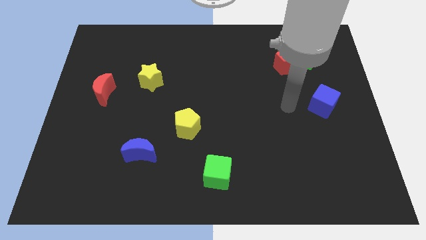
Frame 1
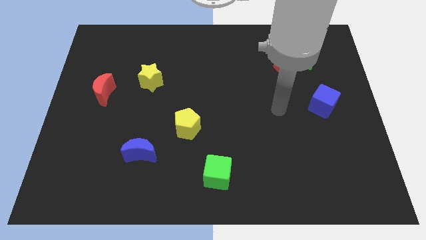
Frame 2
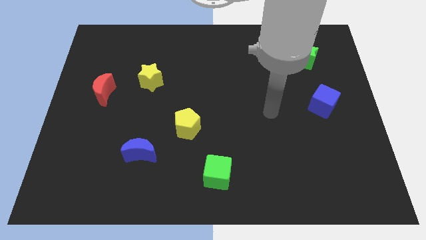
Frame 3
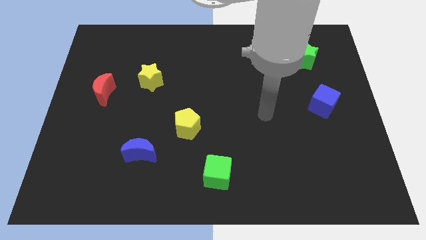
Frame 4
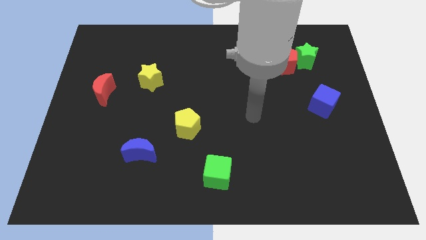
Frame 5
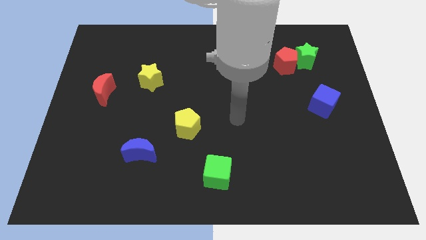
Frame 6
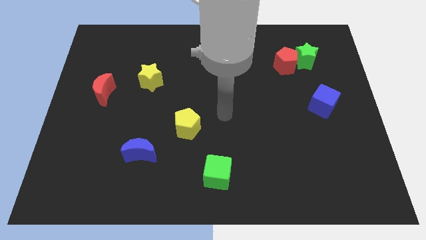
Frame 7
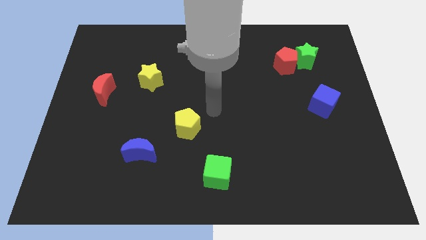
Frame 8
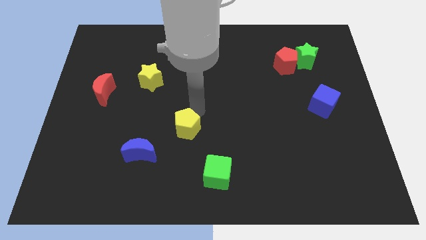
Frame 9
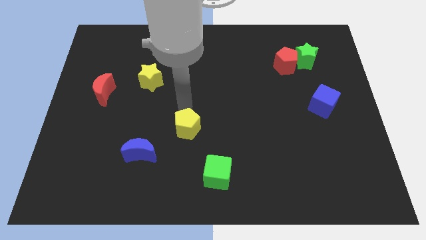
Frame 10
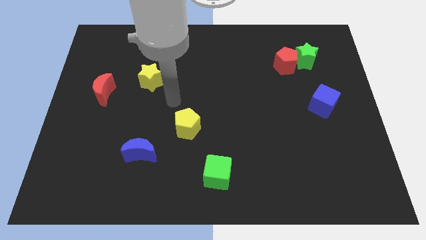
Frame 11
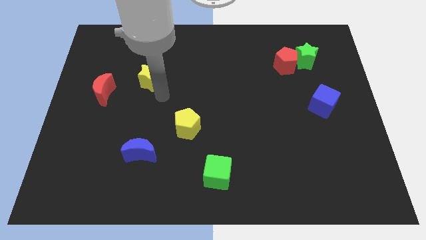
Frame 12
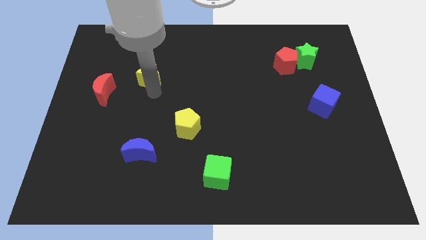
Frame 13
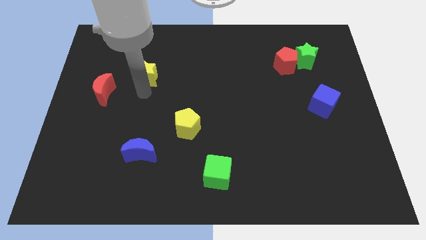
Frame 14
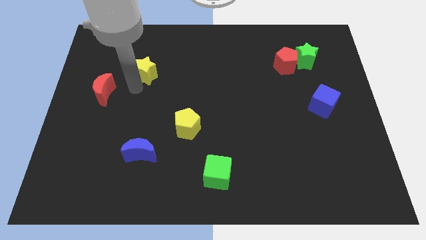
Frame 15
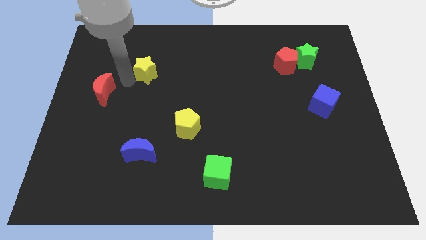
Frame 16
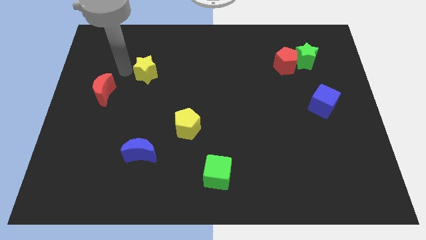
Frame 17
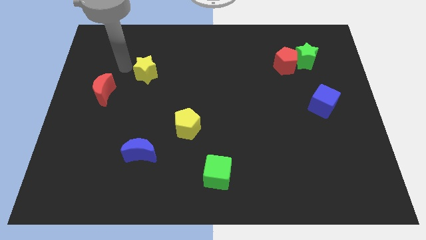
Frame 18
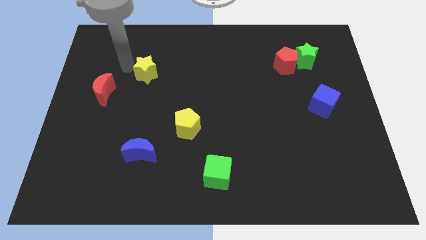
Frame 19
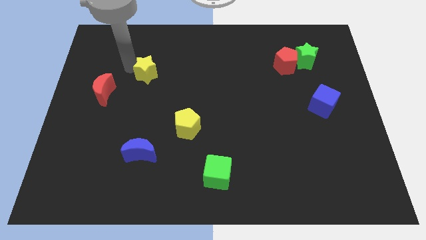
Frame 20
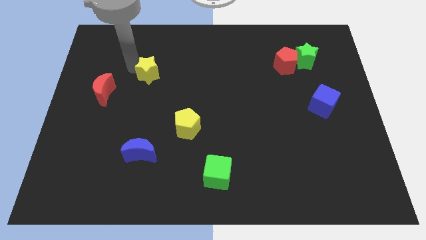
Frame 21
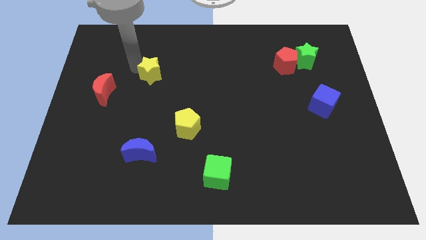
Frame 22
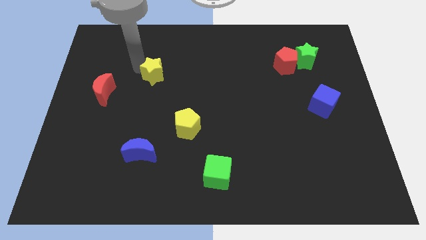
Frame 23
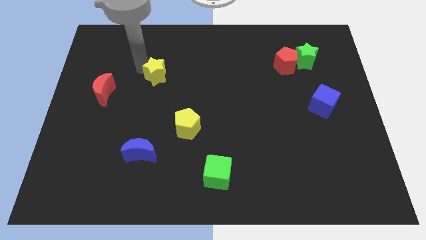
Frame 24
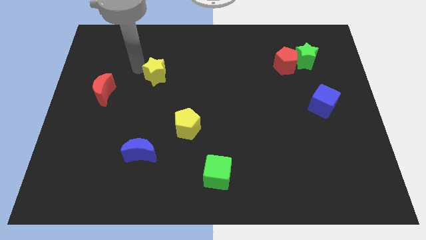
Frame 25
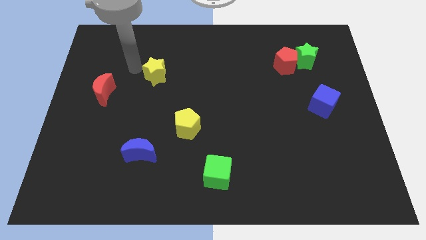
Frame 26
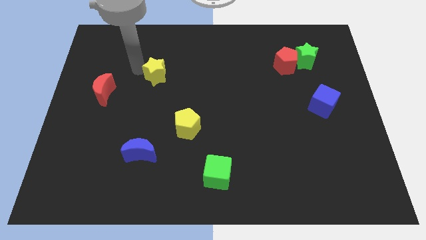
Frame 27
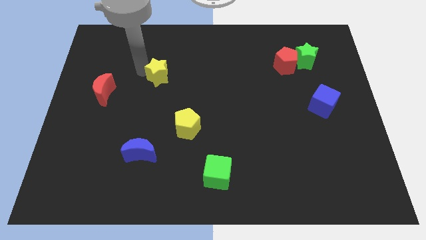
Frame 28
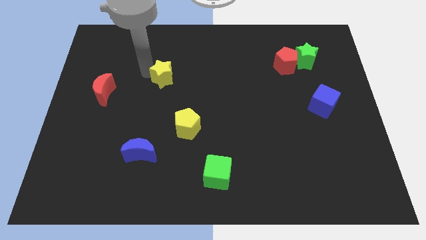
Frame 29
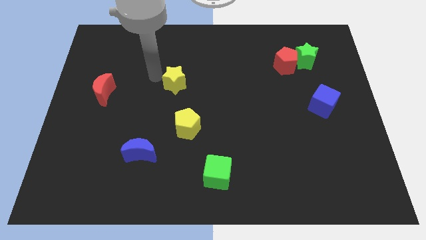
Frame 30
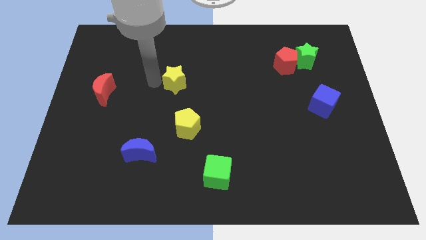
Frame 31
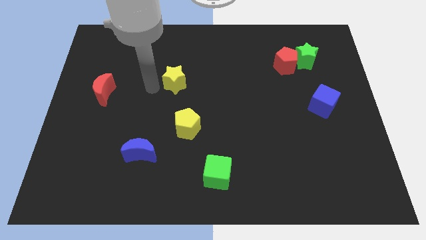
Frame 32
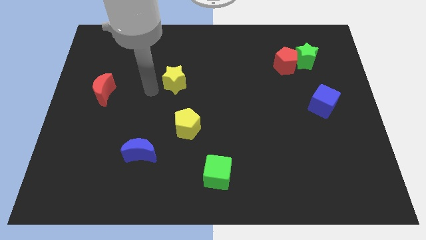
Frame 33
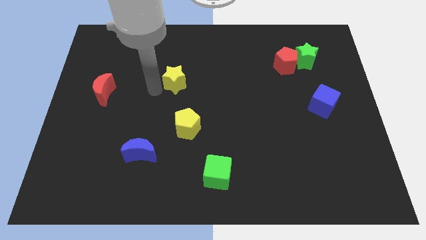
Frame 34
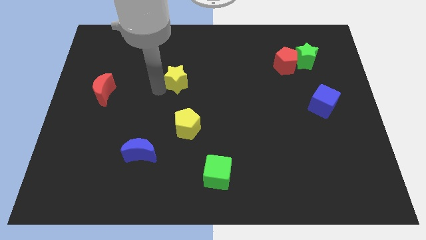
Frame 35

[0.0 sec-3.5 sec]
slightly move the yellow star right

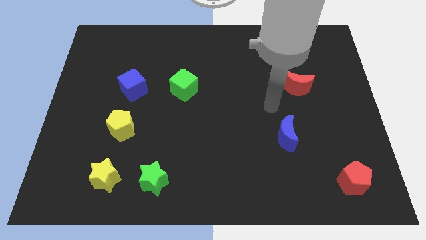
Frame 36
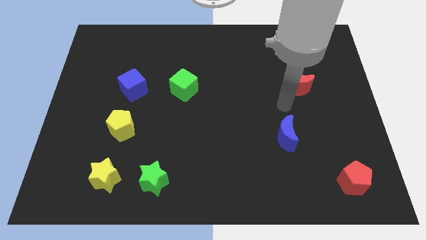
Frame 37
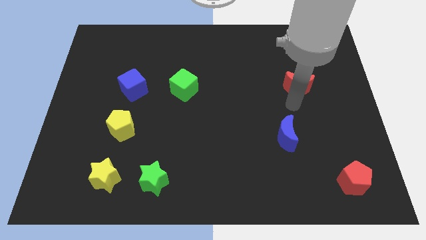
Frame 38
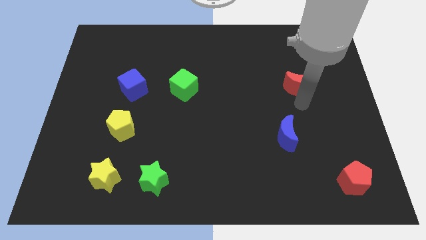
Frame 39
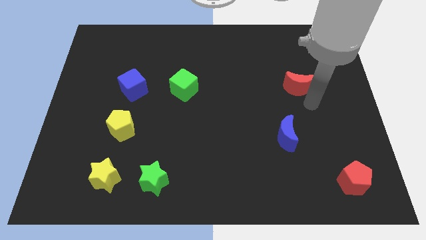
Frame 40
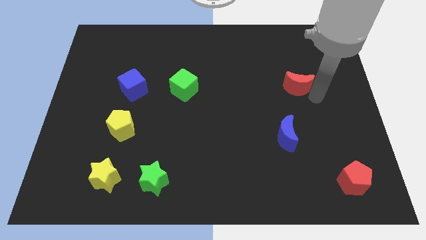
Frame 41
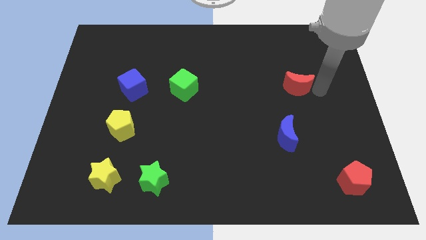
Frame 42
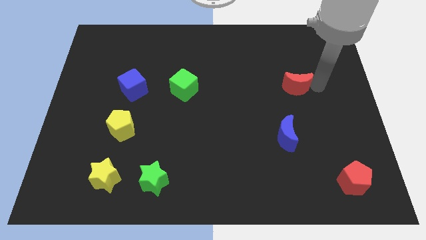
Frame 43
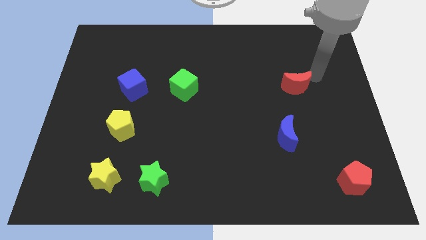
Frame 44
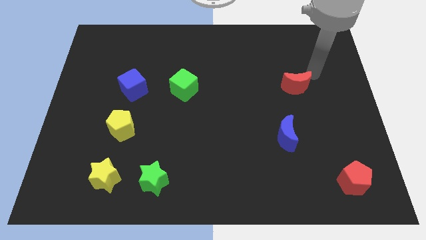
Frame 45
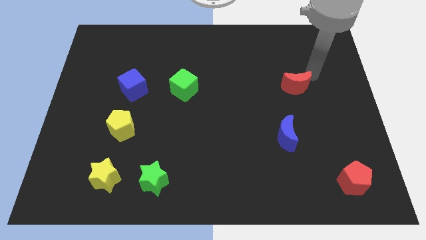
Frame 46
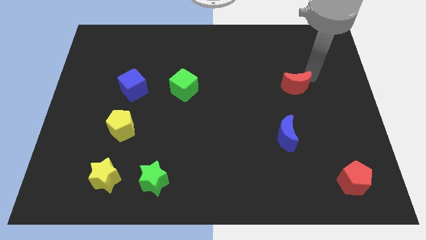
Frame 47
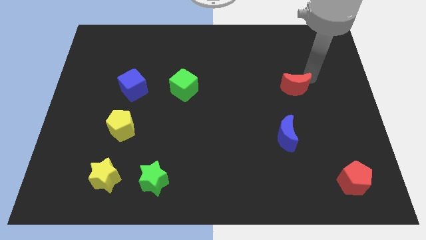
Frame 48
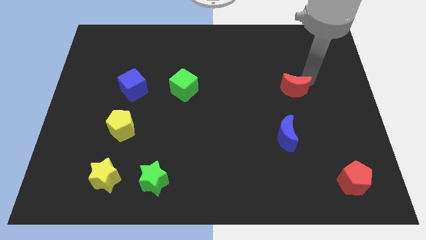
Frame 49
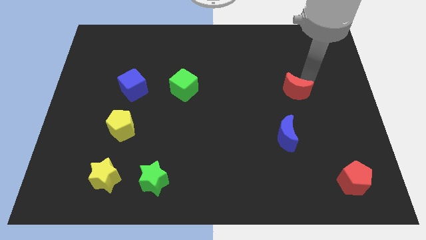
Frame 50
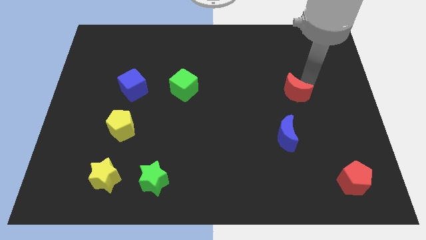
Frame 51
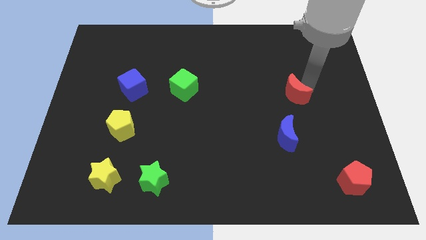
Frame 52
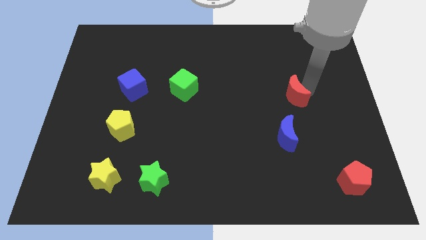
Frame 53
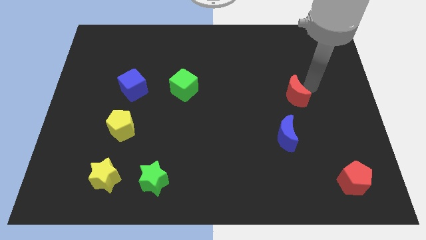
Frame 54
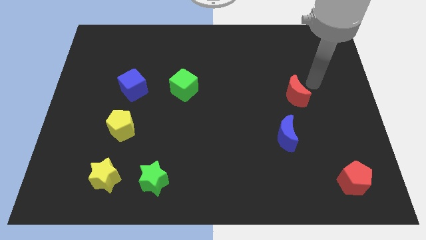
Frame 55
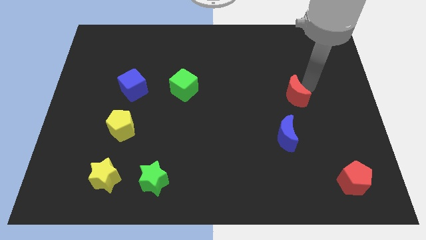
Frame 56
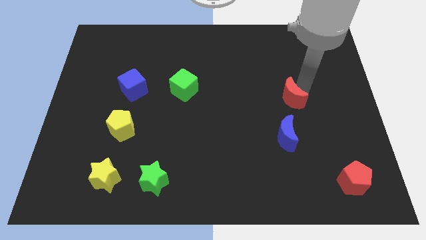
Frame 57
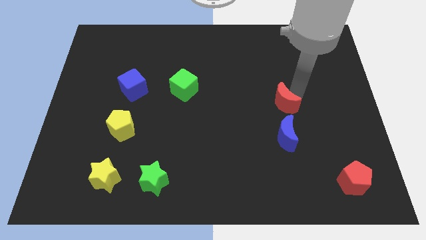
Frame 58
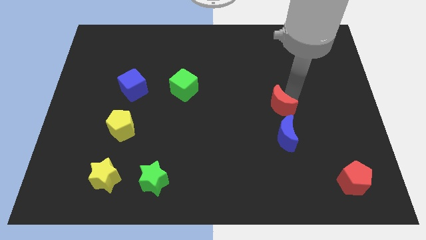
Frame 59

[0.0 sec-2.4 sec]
move the red moon somewhat down and to the left diagonally

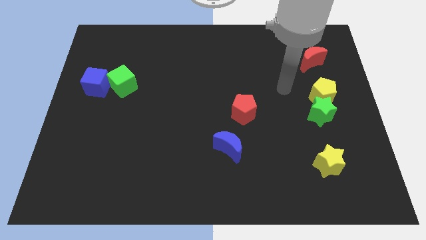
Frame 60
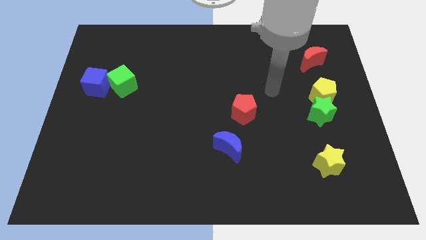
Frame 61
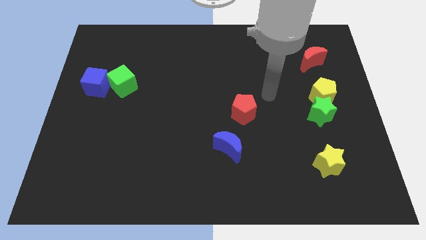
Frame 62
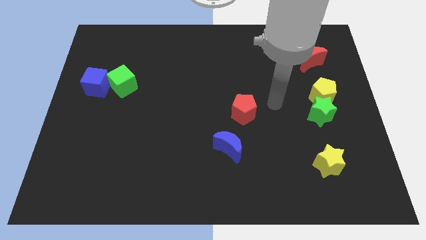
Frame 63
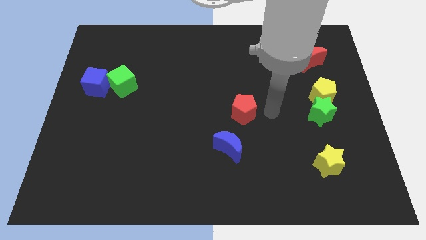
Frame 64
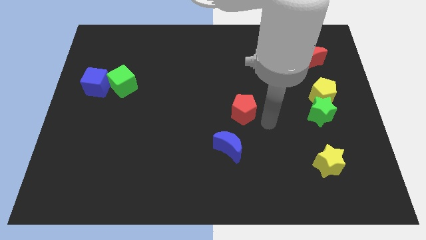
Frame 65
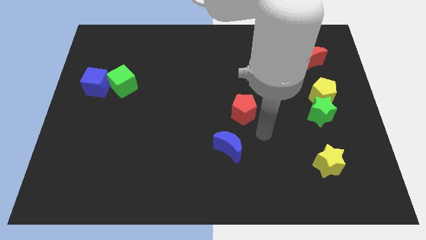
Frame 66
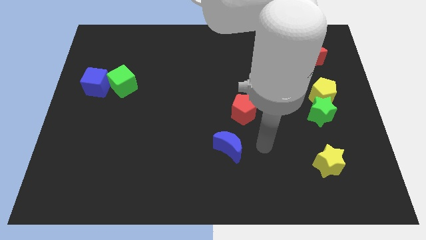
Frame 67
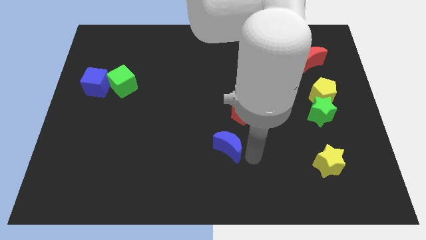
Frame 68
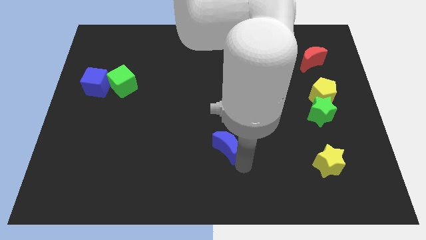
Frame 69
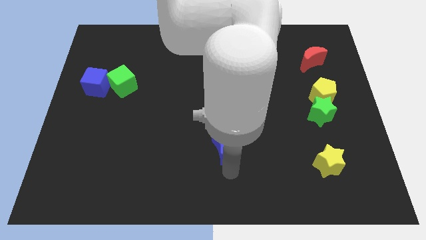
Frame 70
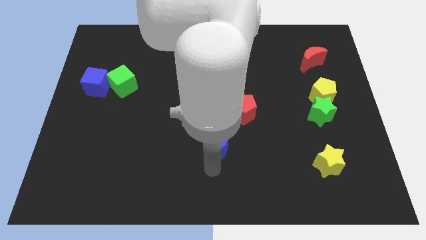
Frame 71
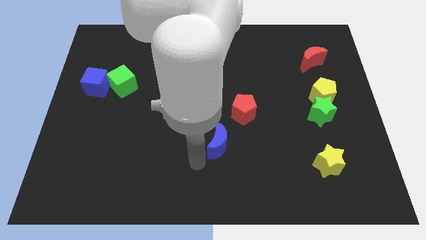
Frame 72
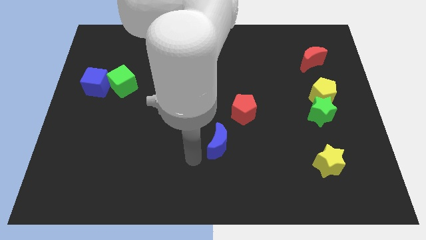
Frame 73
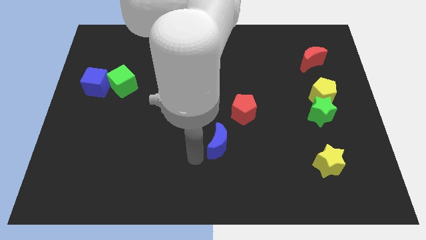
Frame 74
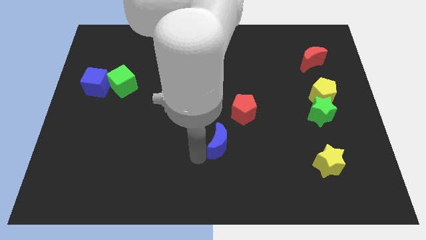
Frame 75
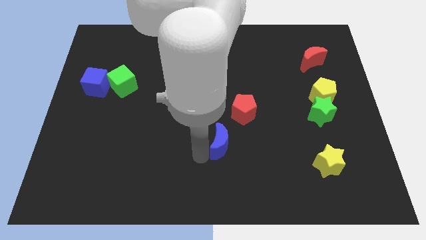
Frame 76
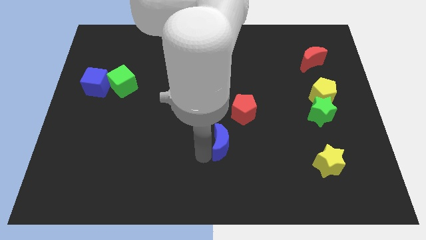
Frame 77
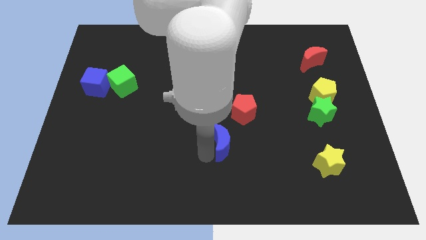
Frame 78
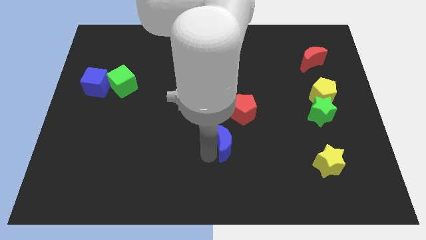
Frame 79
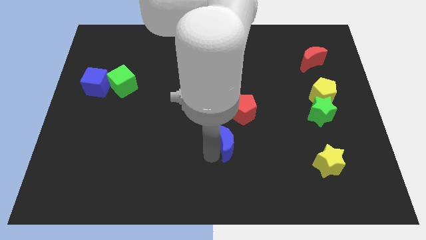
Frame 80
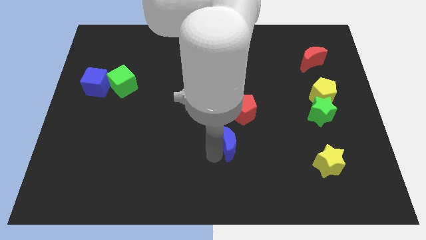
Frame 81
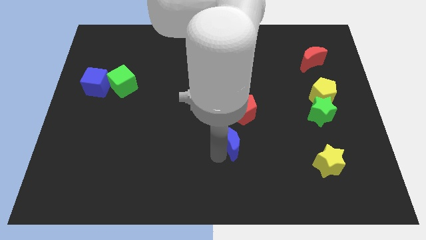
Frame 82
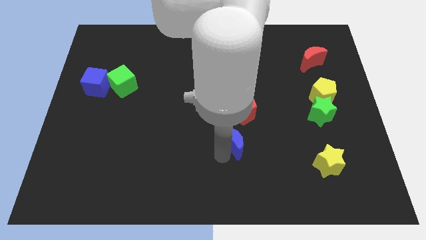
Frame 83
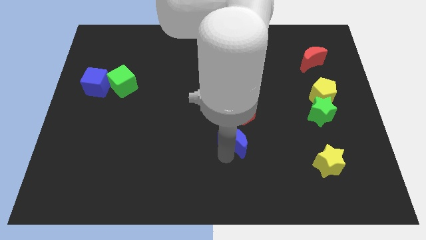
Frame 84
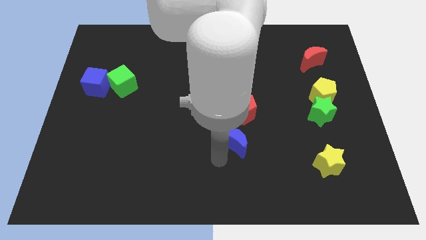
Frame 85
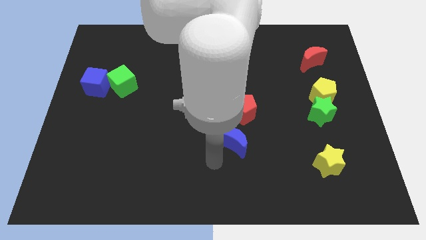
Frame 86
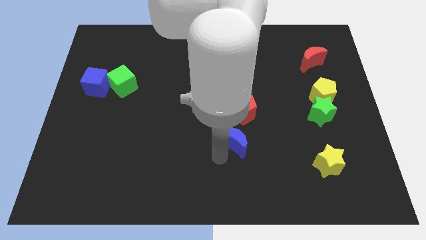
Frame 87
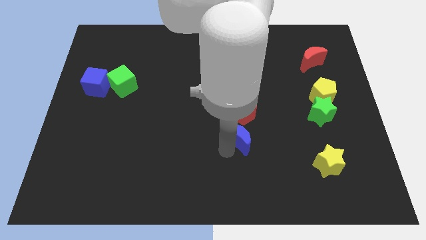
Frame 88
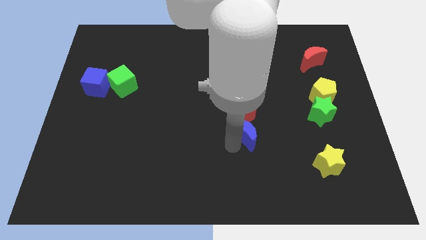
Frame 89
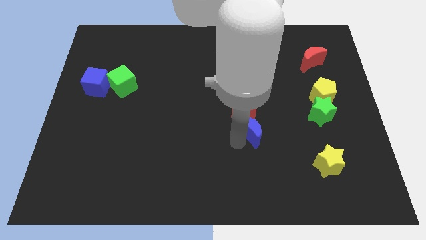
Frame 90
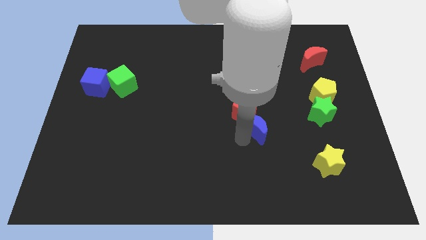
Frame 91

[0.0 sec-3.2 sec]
slide the blue moon slightly upwards and then to the right
